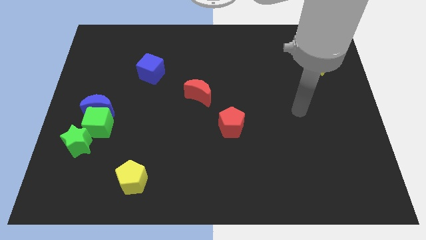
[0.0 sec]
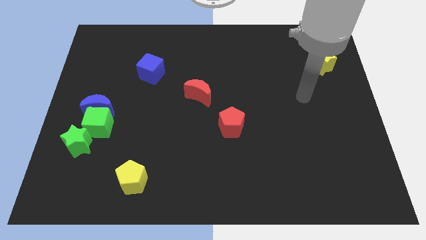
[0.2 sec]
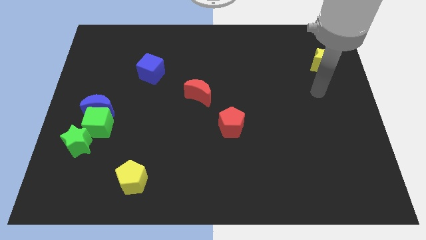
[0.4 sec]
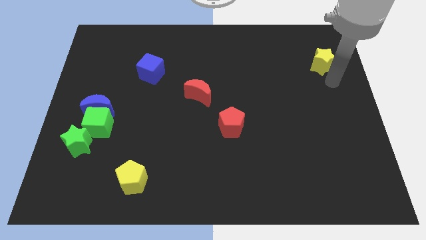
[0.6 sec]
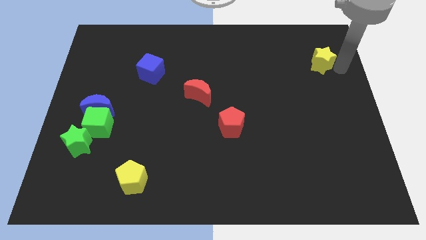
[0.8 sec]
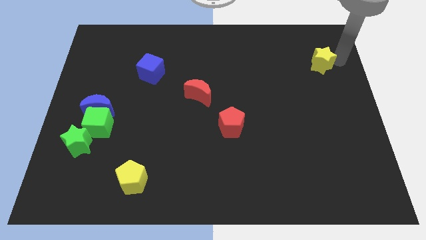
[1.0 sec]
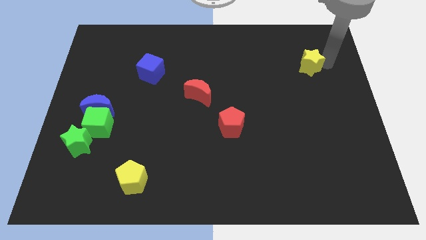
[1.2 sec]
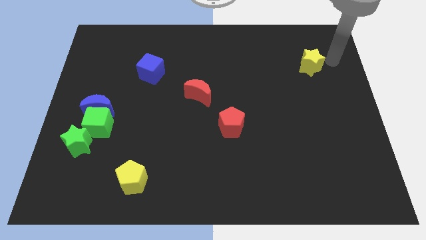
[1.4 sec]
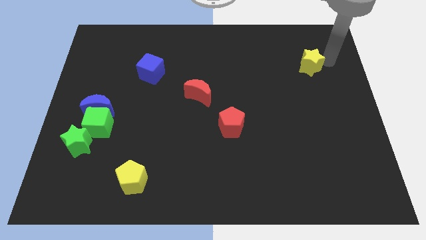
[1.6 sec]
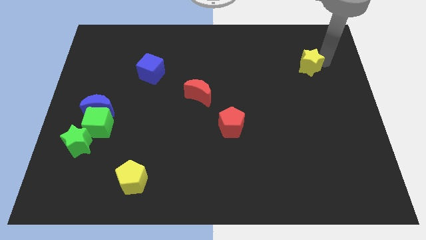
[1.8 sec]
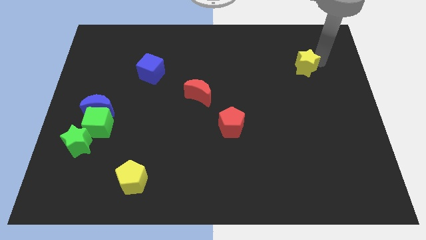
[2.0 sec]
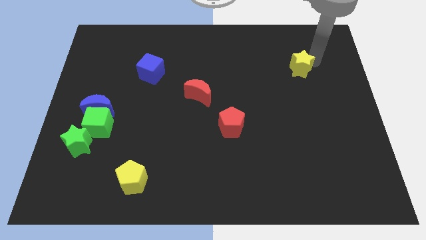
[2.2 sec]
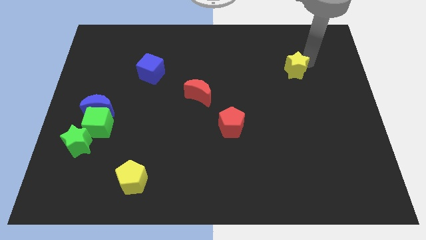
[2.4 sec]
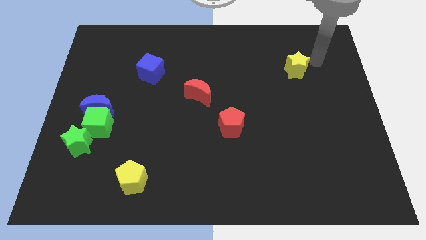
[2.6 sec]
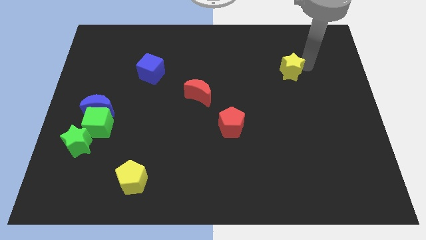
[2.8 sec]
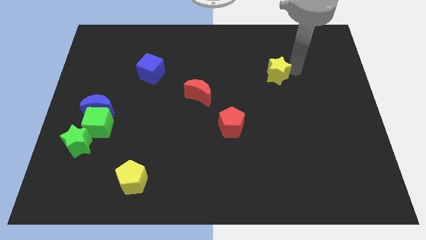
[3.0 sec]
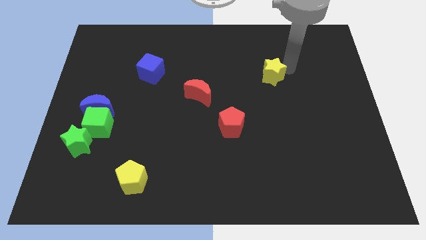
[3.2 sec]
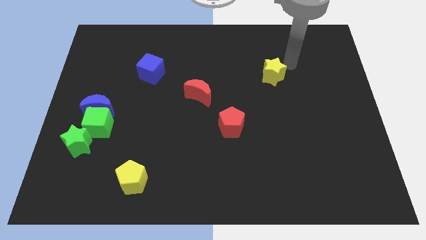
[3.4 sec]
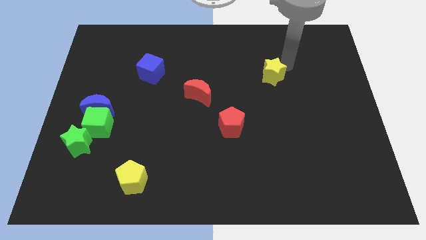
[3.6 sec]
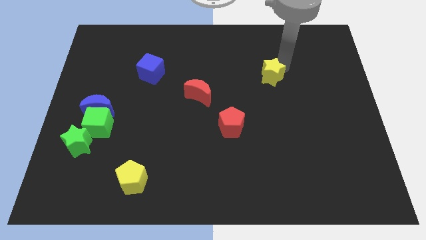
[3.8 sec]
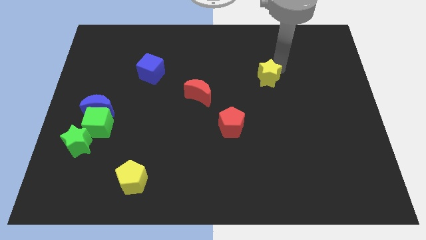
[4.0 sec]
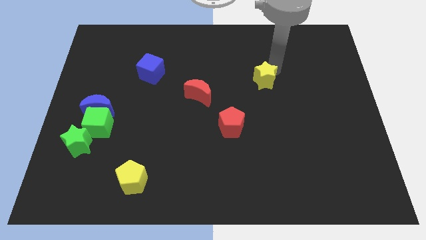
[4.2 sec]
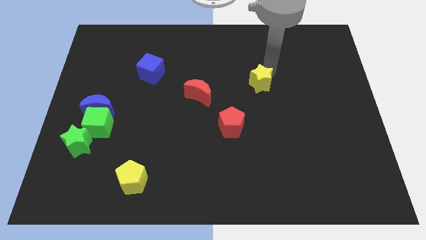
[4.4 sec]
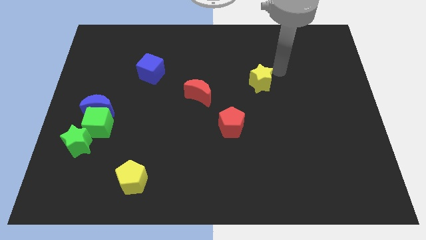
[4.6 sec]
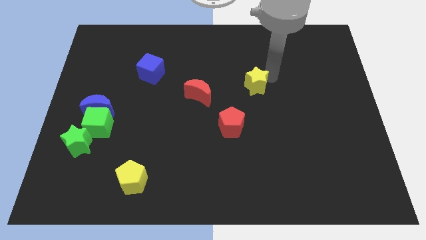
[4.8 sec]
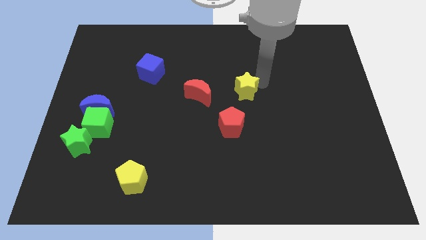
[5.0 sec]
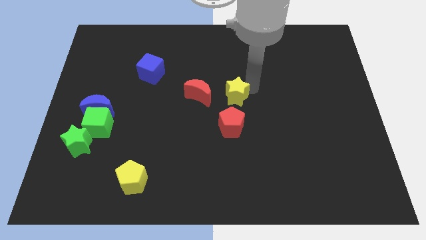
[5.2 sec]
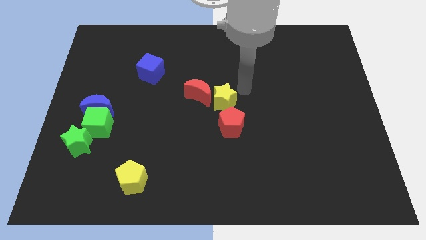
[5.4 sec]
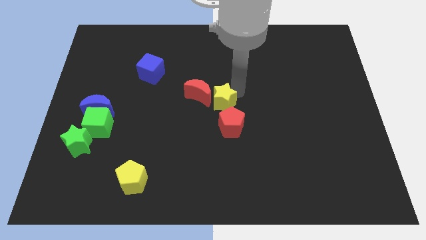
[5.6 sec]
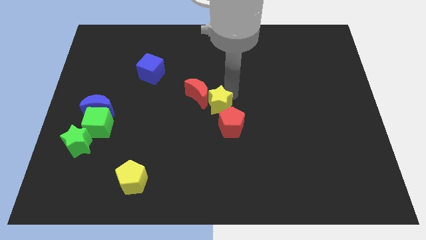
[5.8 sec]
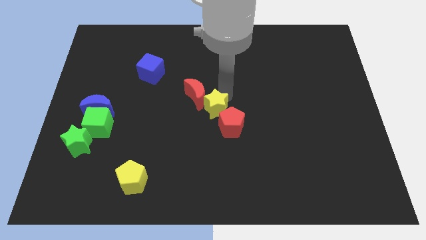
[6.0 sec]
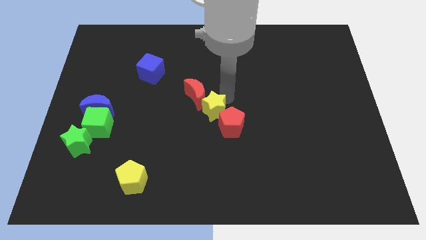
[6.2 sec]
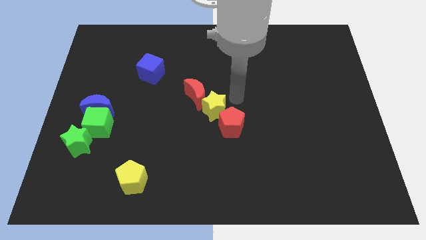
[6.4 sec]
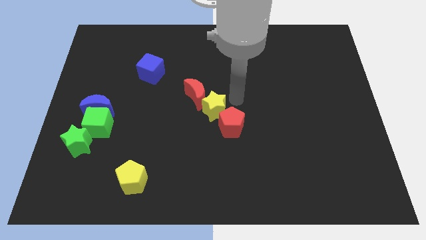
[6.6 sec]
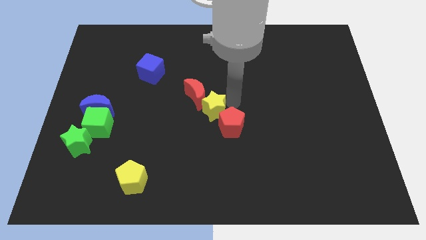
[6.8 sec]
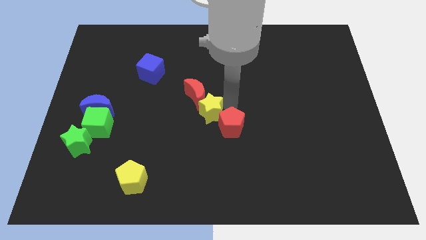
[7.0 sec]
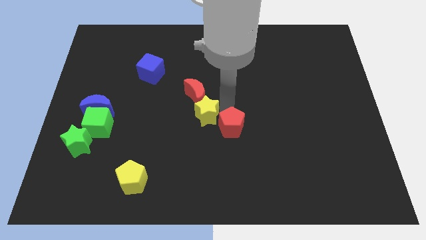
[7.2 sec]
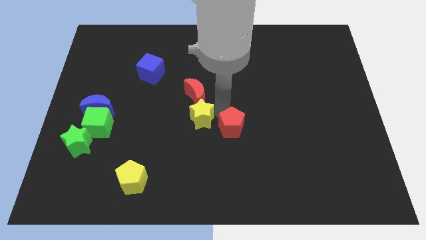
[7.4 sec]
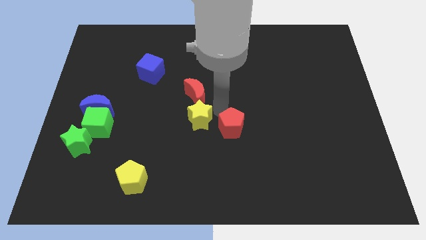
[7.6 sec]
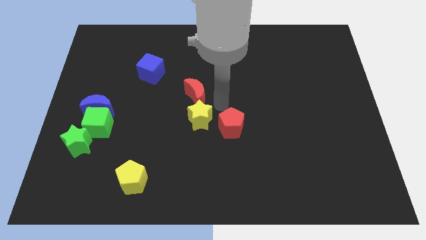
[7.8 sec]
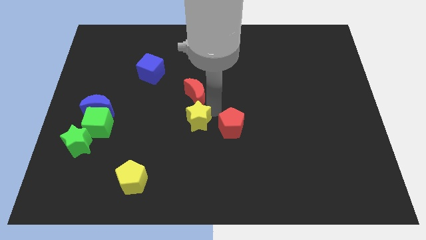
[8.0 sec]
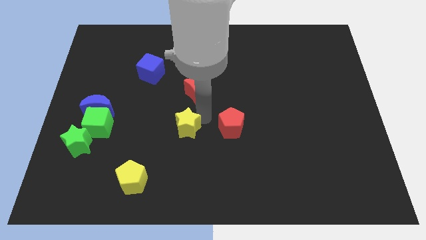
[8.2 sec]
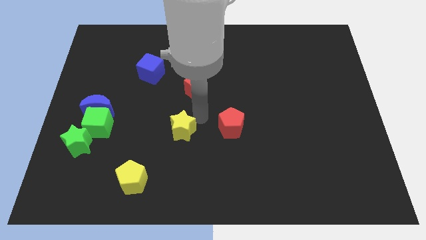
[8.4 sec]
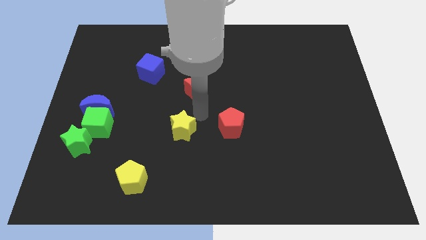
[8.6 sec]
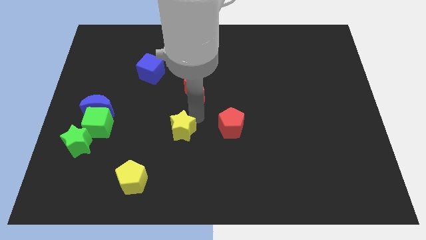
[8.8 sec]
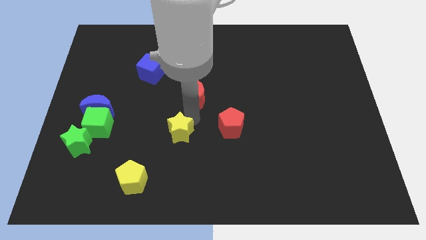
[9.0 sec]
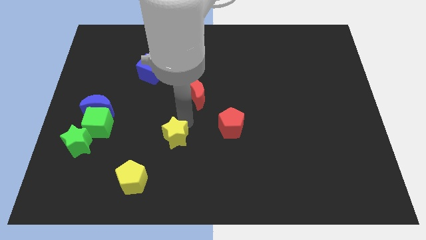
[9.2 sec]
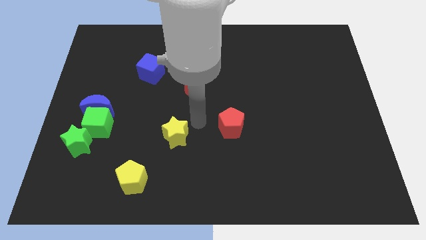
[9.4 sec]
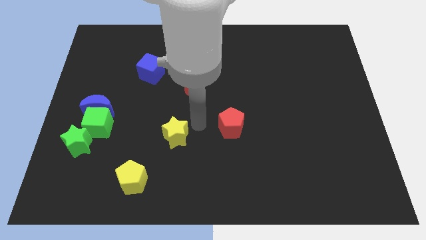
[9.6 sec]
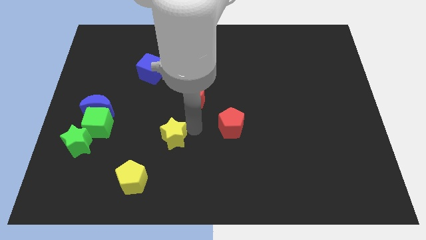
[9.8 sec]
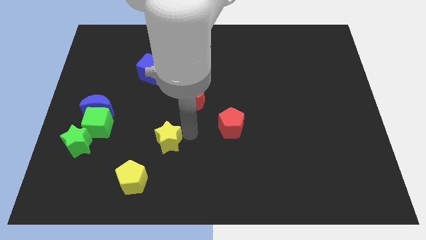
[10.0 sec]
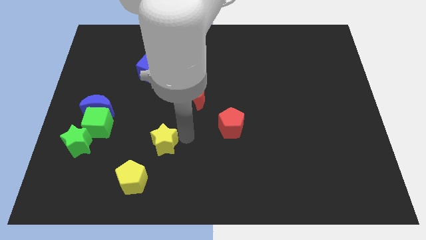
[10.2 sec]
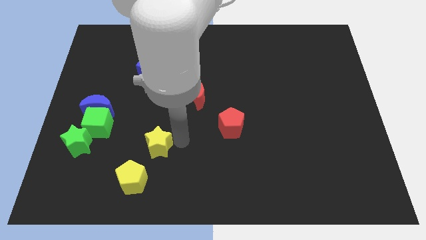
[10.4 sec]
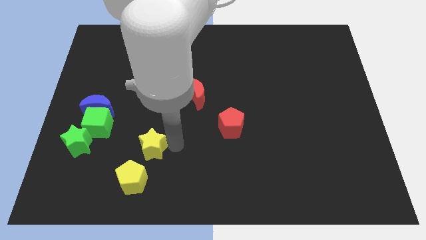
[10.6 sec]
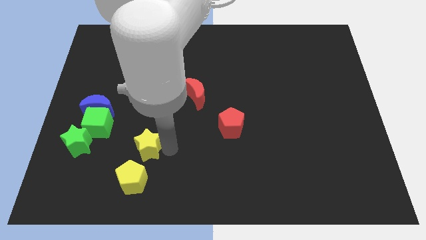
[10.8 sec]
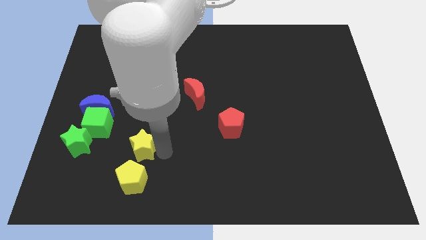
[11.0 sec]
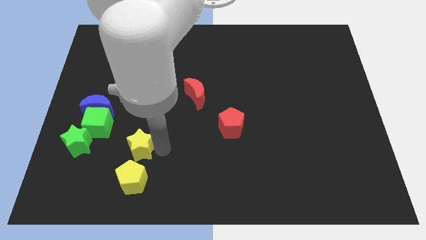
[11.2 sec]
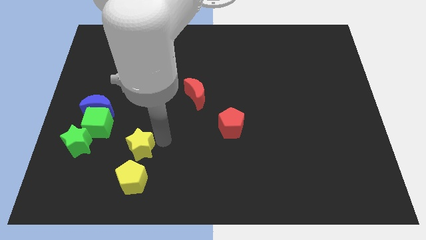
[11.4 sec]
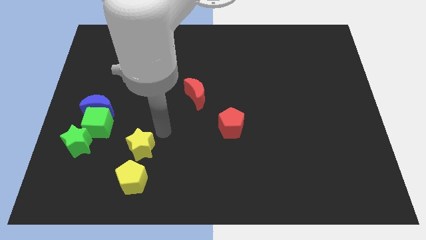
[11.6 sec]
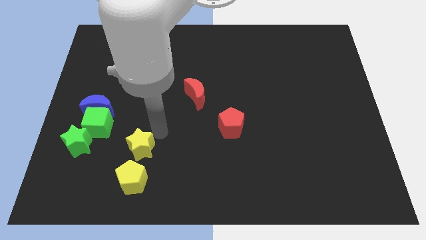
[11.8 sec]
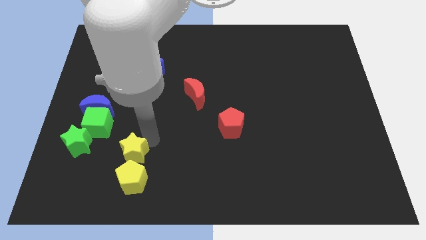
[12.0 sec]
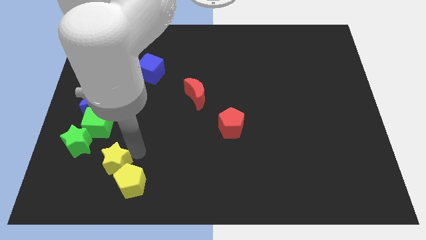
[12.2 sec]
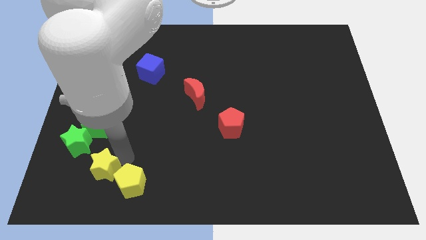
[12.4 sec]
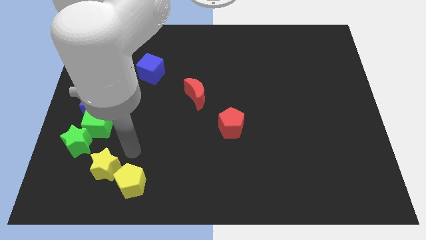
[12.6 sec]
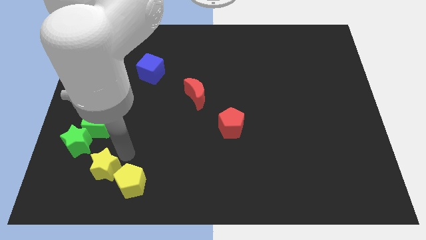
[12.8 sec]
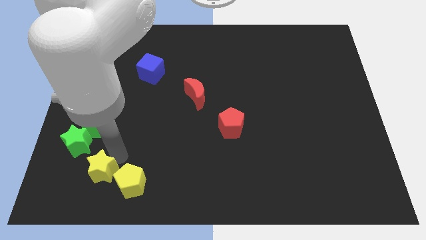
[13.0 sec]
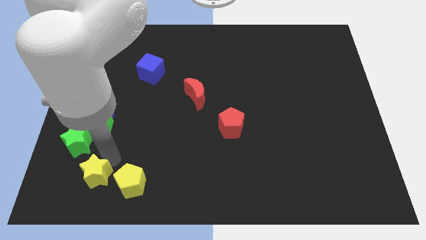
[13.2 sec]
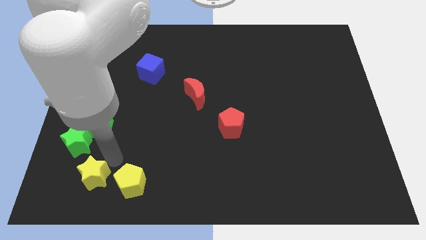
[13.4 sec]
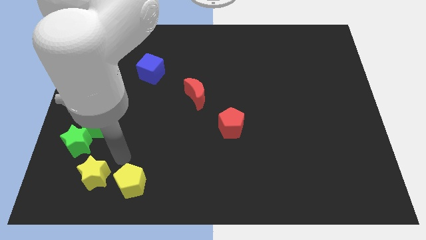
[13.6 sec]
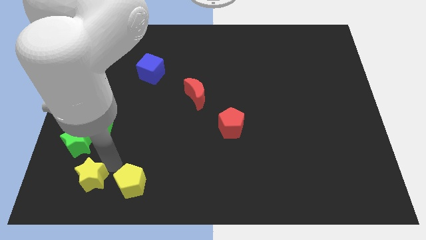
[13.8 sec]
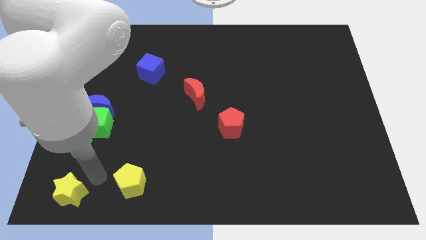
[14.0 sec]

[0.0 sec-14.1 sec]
slide the yellow star to the bottom left
